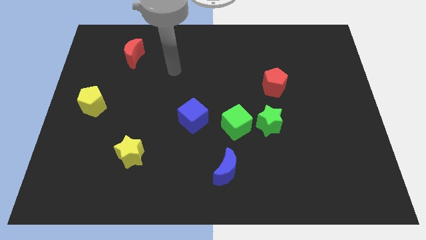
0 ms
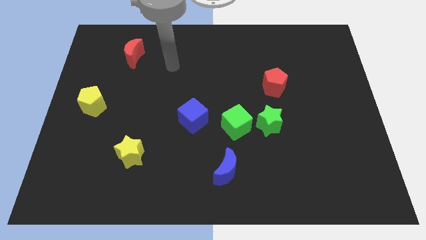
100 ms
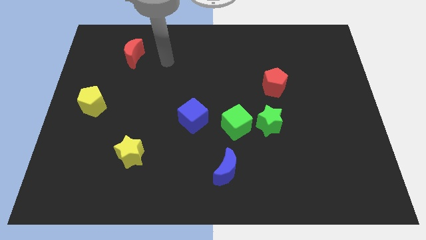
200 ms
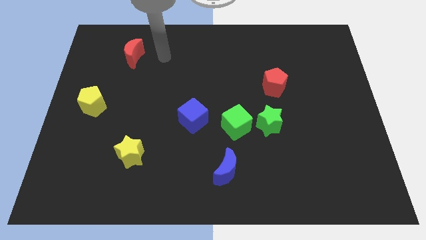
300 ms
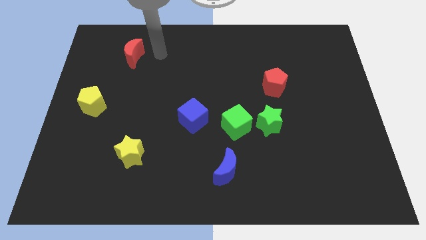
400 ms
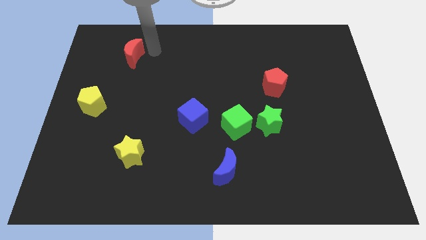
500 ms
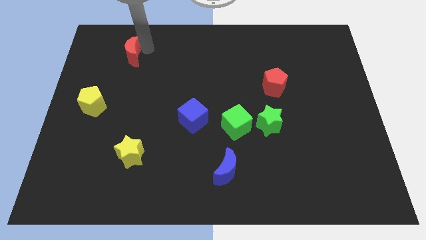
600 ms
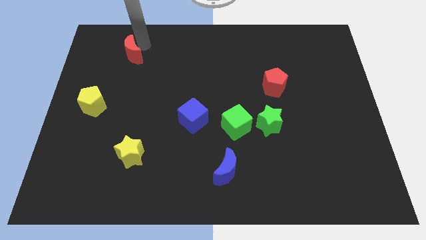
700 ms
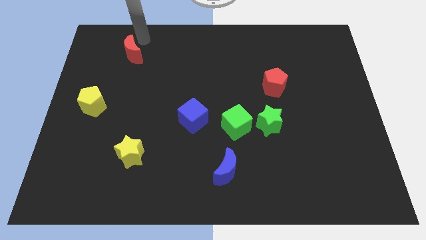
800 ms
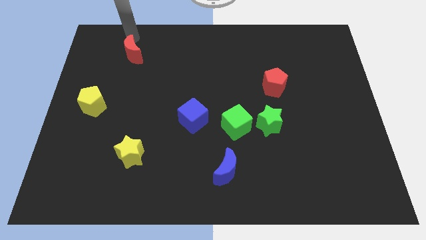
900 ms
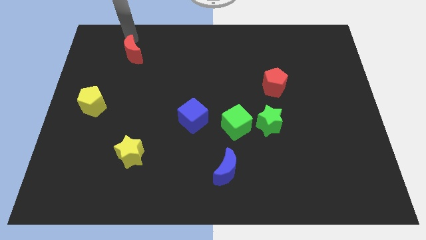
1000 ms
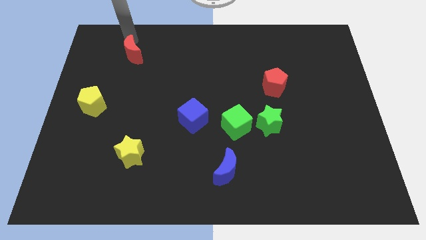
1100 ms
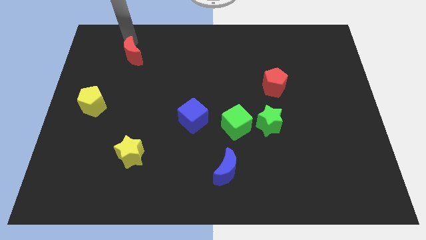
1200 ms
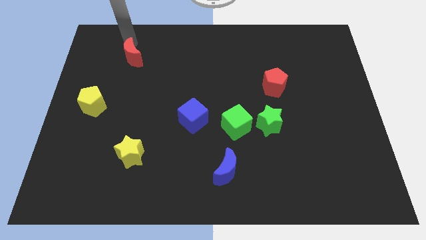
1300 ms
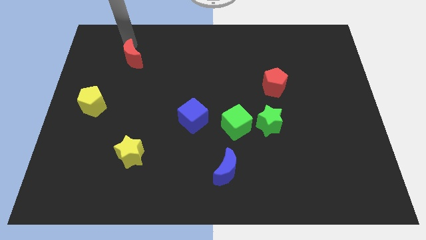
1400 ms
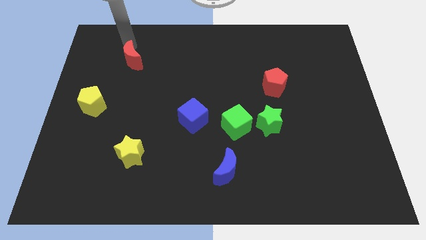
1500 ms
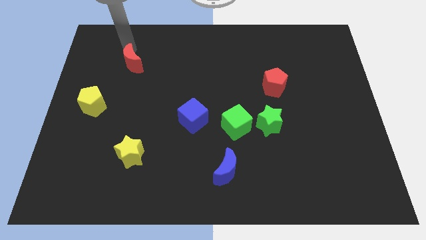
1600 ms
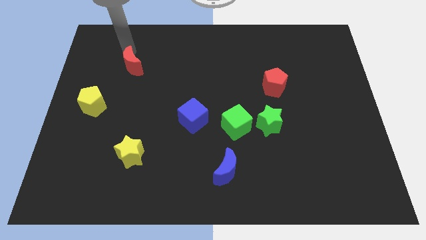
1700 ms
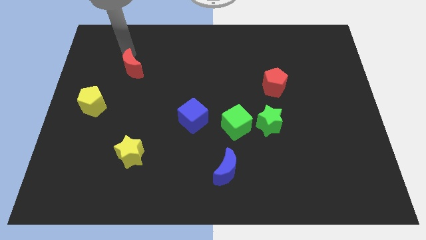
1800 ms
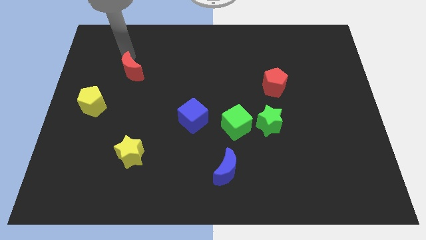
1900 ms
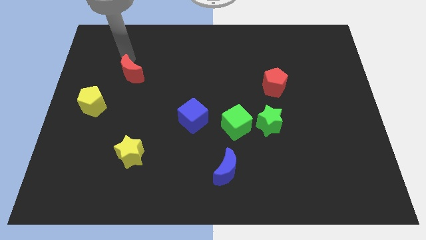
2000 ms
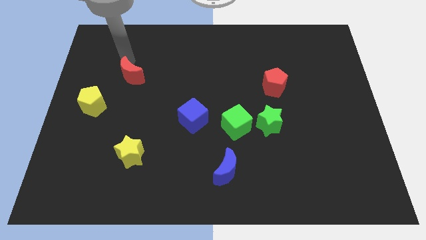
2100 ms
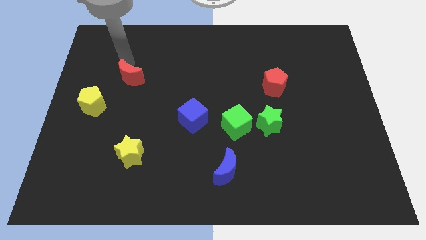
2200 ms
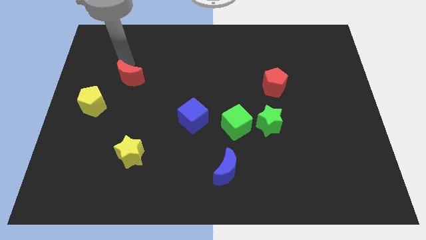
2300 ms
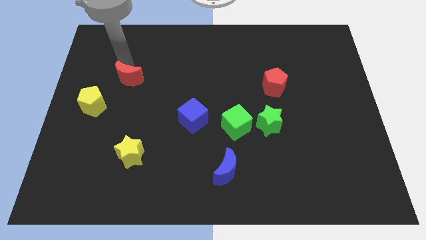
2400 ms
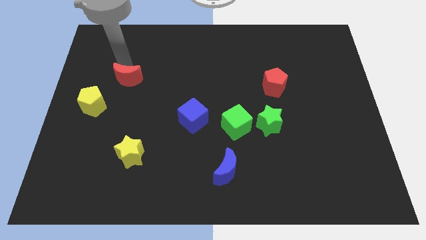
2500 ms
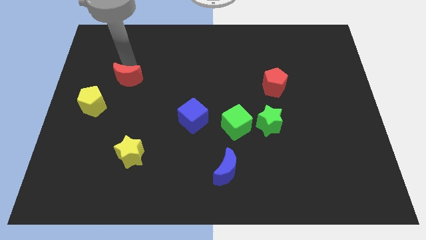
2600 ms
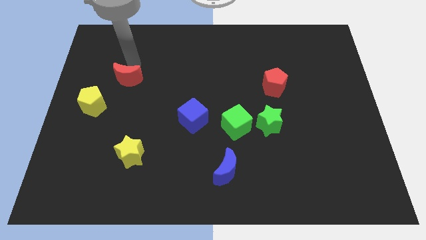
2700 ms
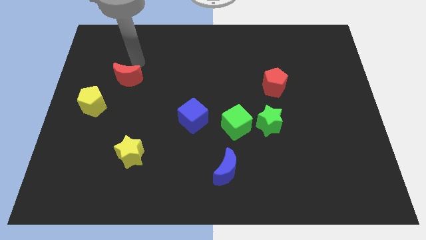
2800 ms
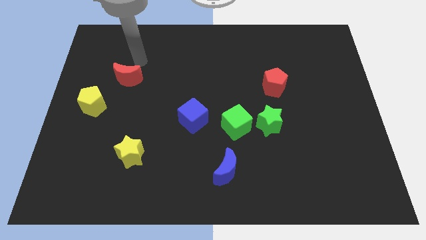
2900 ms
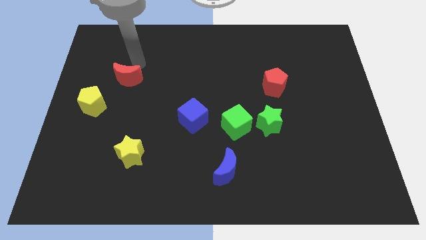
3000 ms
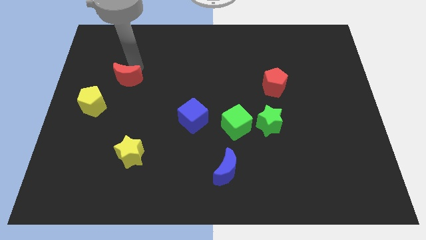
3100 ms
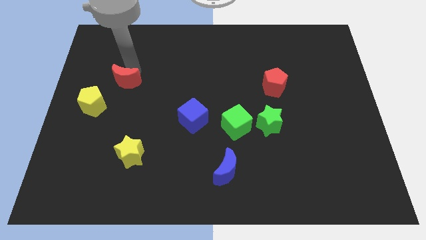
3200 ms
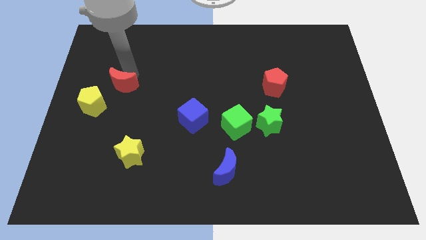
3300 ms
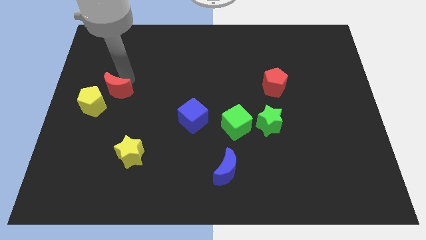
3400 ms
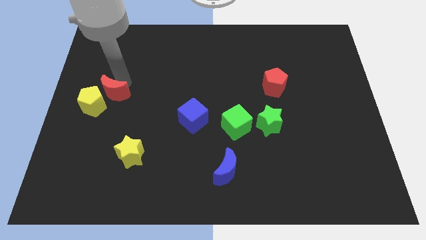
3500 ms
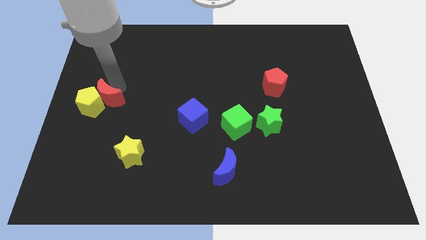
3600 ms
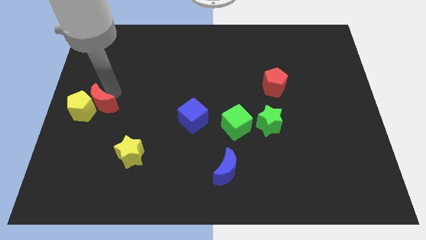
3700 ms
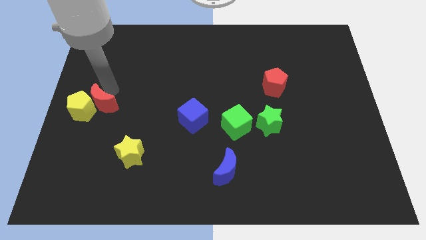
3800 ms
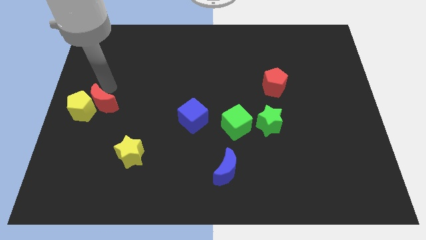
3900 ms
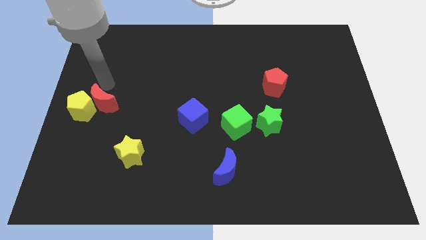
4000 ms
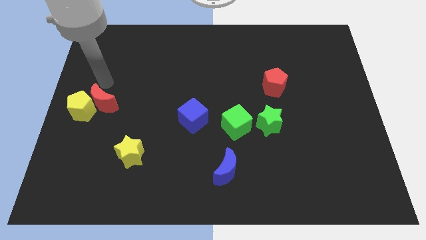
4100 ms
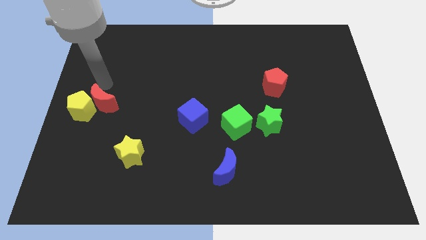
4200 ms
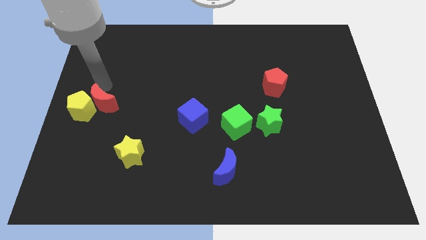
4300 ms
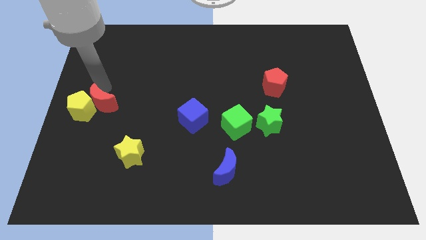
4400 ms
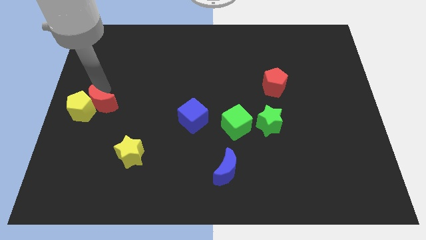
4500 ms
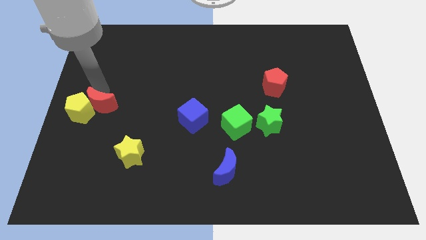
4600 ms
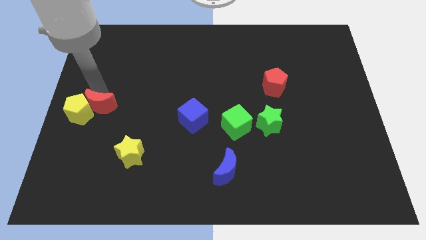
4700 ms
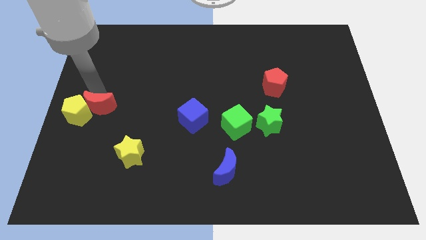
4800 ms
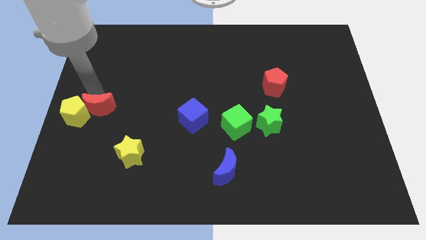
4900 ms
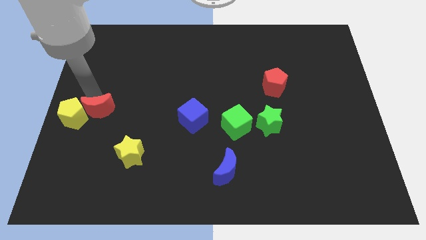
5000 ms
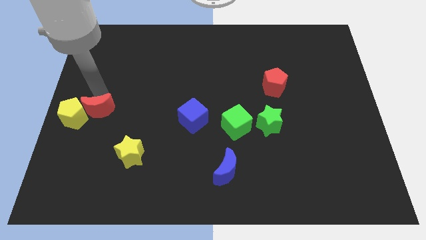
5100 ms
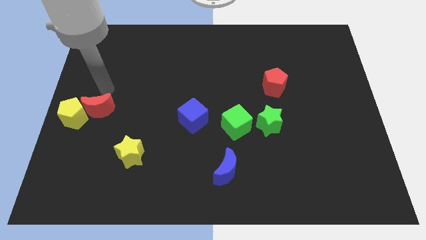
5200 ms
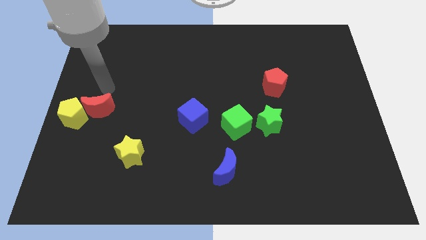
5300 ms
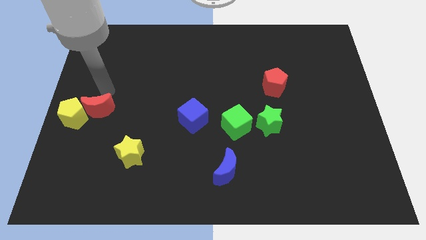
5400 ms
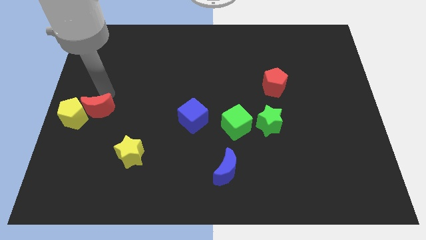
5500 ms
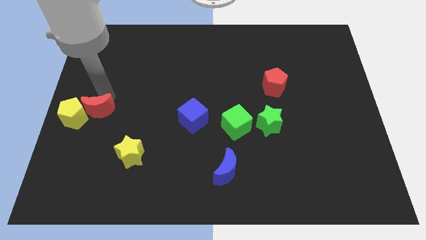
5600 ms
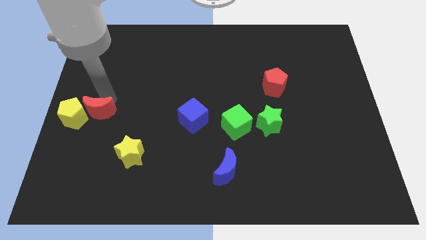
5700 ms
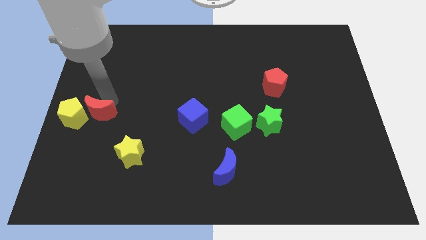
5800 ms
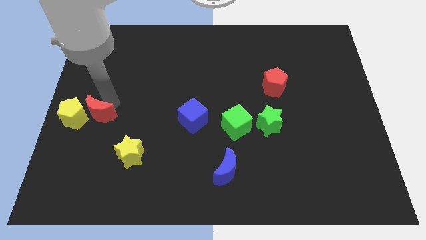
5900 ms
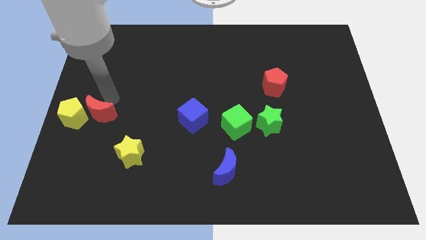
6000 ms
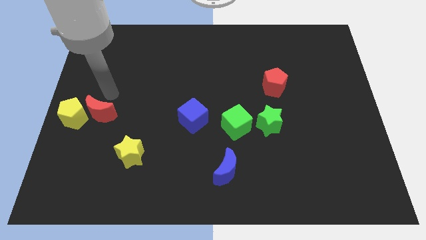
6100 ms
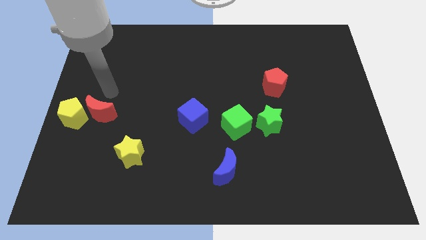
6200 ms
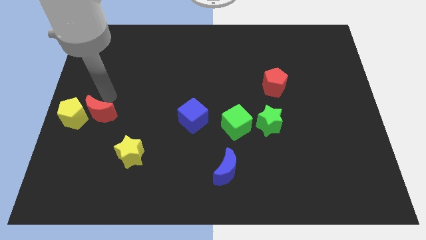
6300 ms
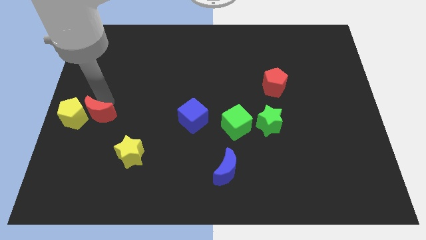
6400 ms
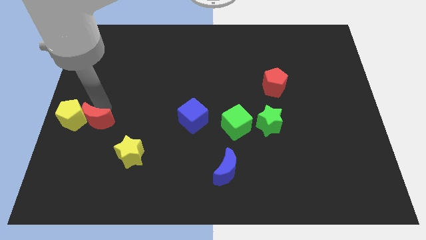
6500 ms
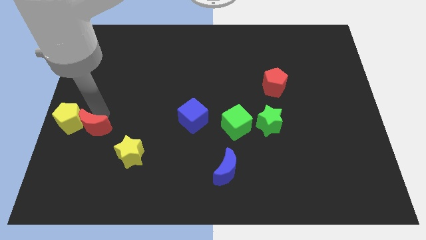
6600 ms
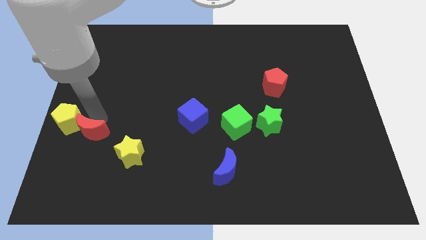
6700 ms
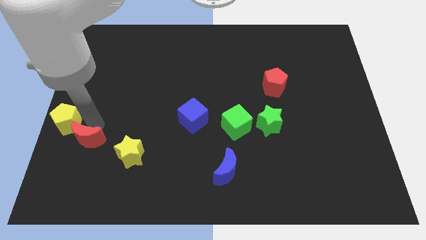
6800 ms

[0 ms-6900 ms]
put the red moon left of the yellow star

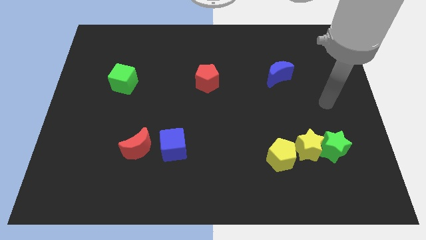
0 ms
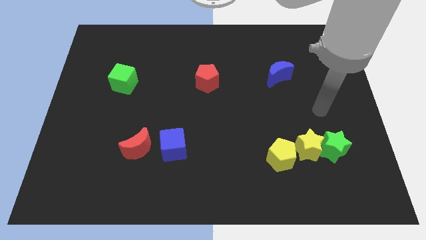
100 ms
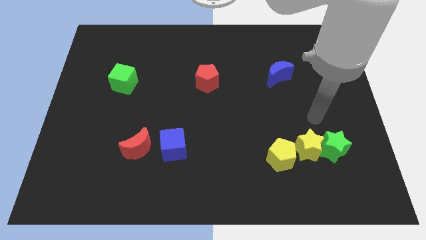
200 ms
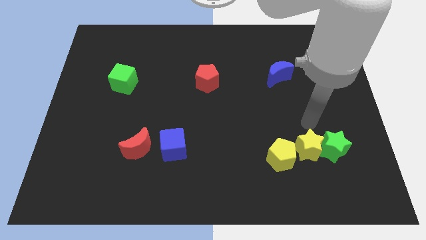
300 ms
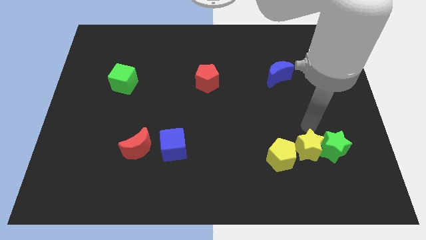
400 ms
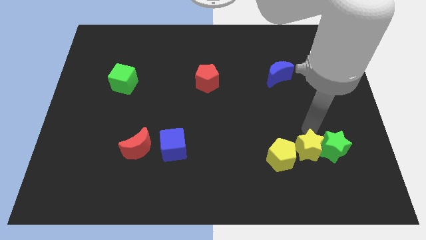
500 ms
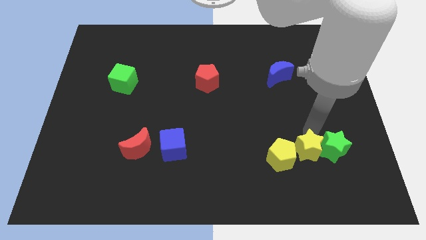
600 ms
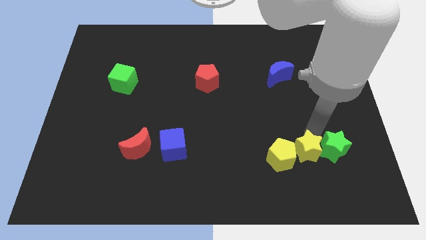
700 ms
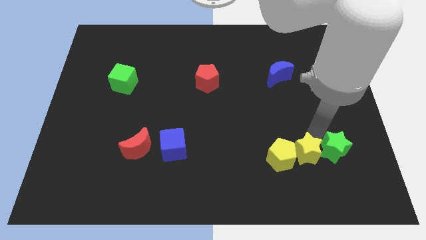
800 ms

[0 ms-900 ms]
push the yellow star diagonally down and to the right of the yellow pentagon
